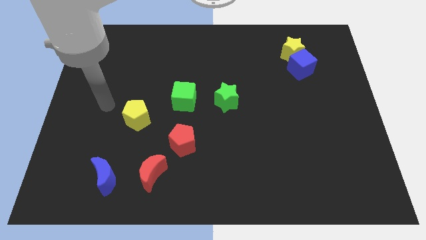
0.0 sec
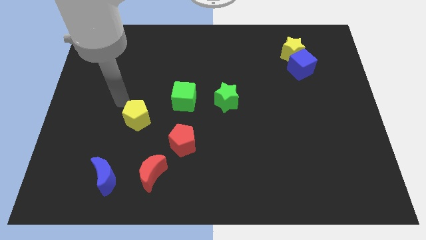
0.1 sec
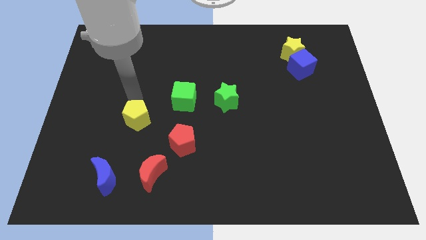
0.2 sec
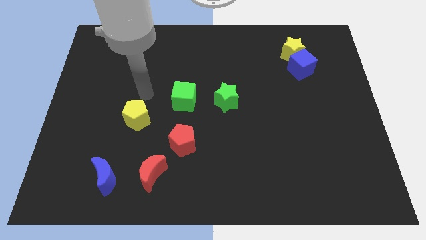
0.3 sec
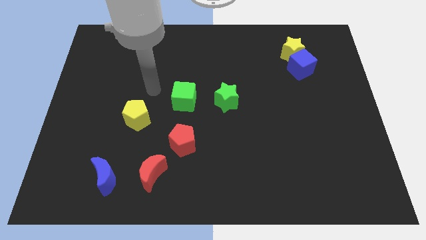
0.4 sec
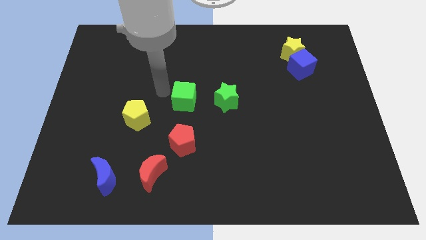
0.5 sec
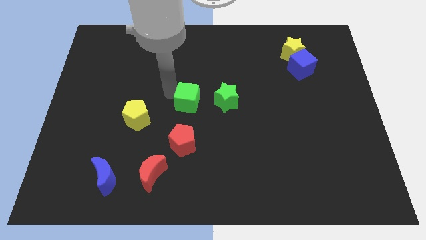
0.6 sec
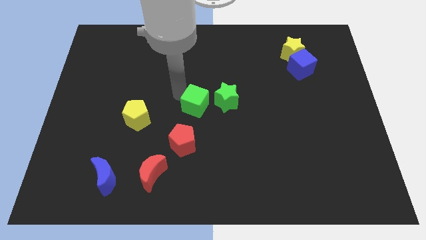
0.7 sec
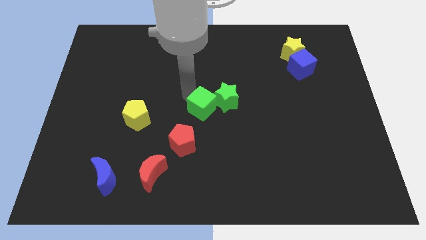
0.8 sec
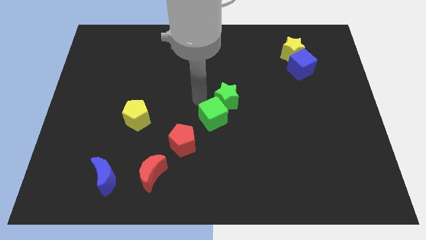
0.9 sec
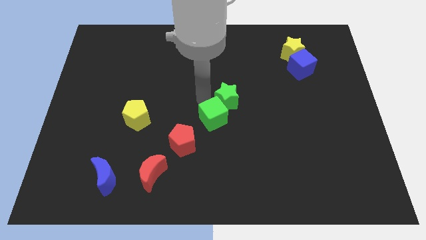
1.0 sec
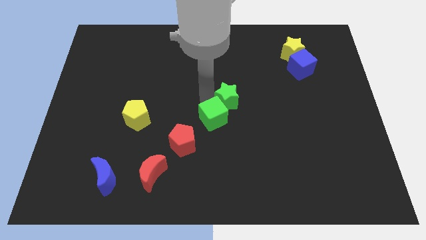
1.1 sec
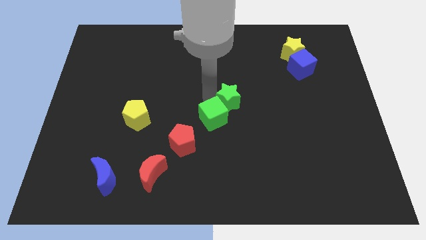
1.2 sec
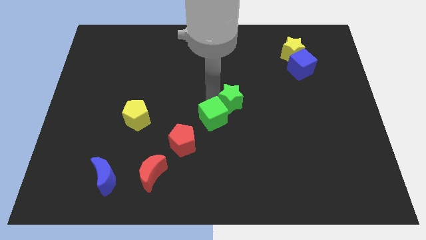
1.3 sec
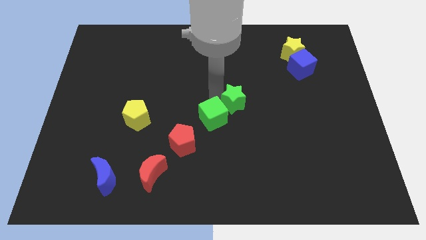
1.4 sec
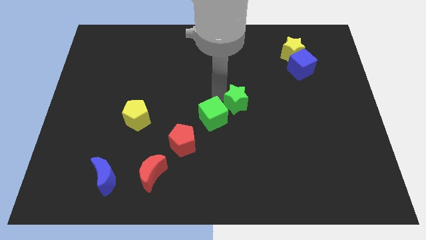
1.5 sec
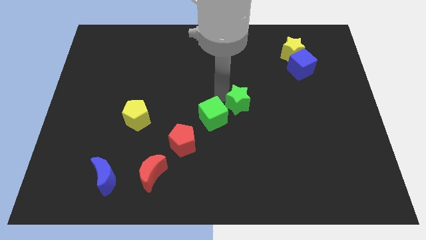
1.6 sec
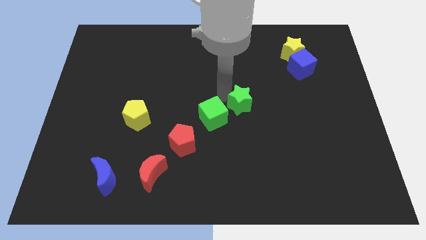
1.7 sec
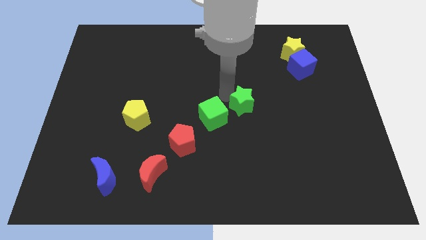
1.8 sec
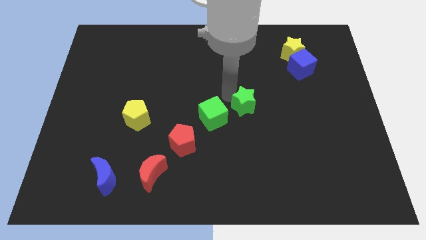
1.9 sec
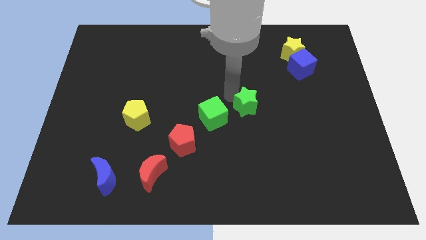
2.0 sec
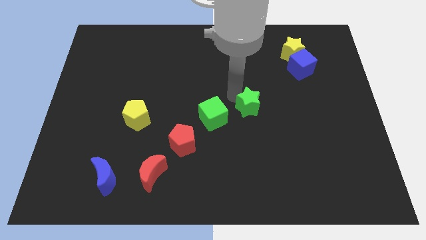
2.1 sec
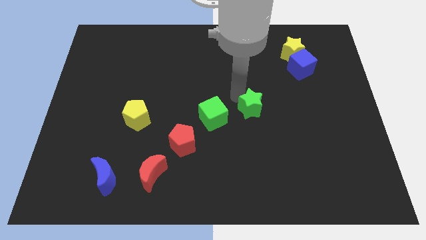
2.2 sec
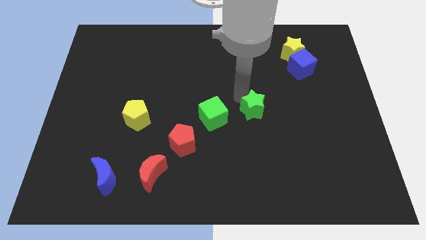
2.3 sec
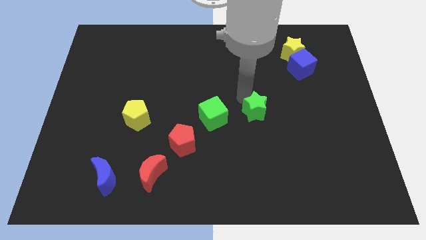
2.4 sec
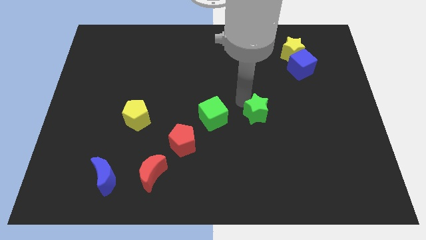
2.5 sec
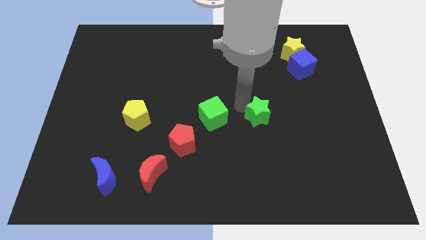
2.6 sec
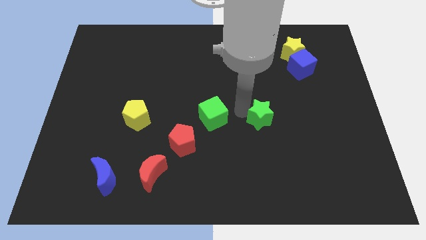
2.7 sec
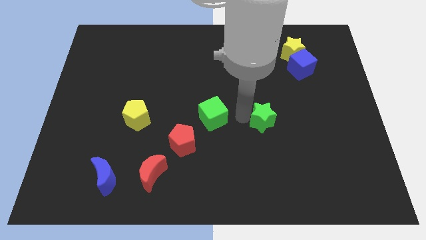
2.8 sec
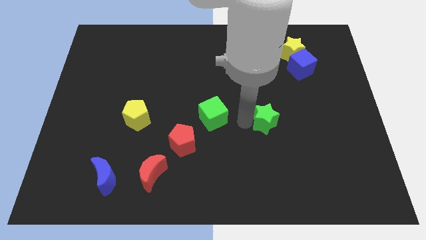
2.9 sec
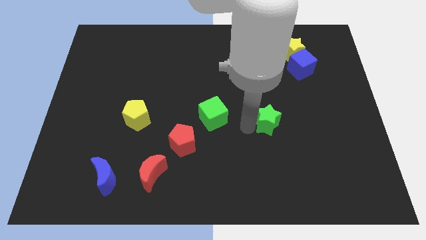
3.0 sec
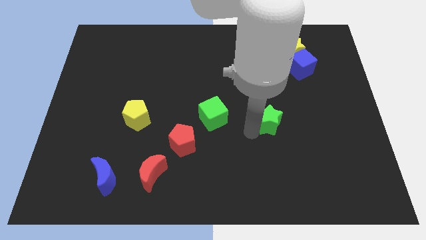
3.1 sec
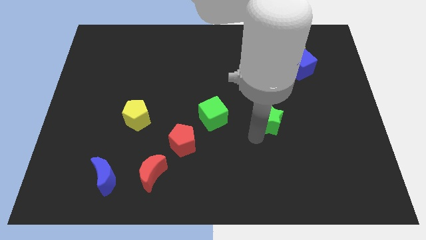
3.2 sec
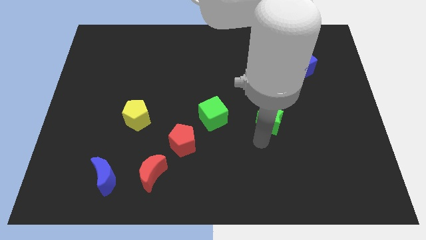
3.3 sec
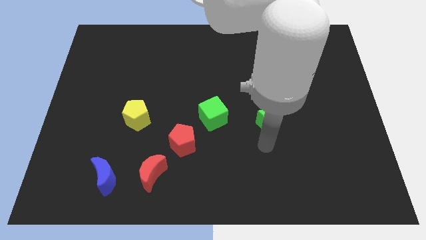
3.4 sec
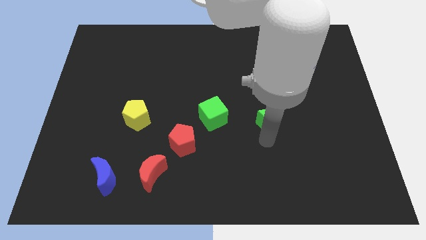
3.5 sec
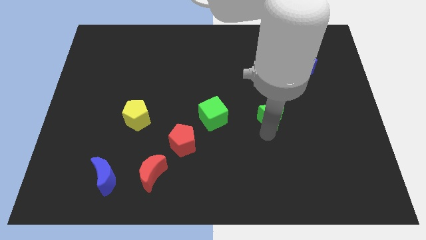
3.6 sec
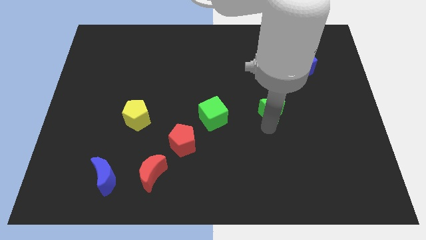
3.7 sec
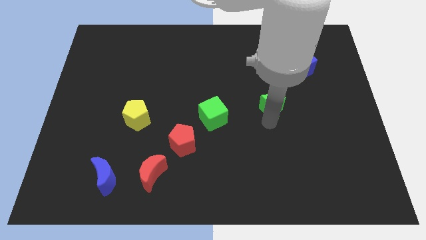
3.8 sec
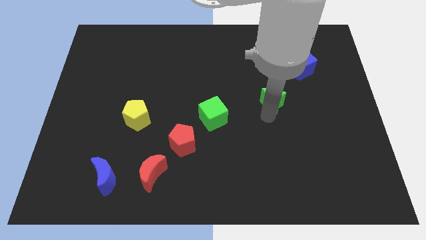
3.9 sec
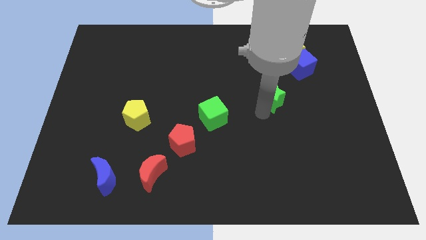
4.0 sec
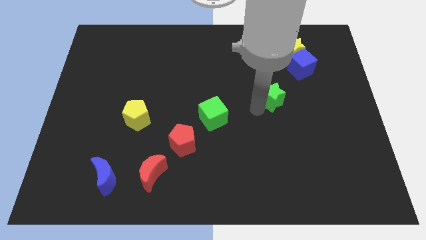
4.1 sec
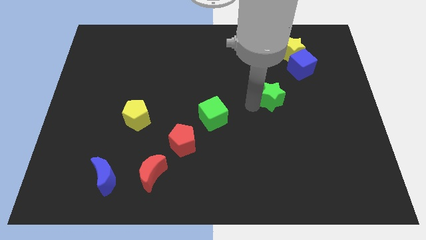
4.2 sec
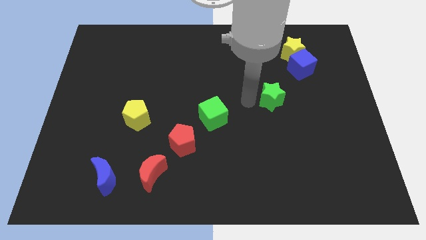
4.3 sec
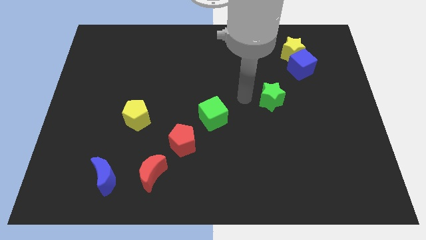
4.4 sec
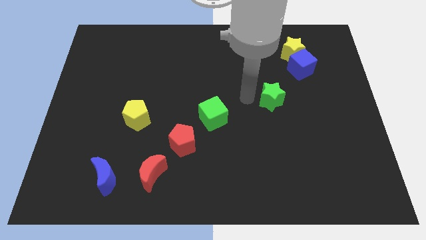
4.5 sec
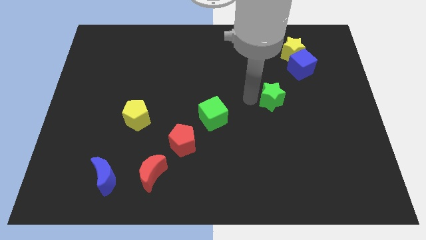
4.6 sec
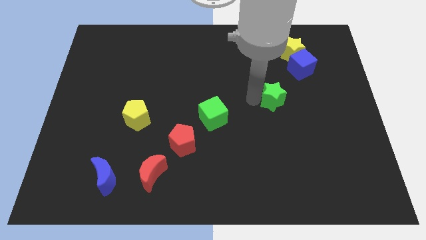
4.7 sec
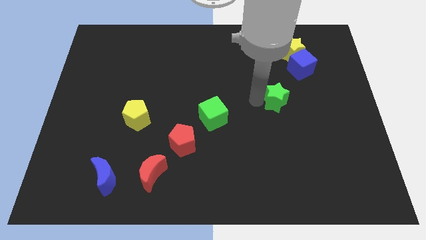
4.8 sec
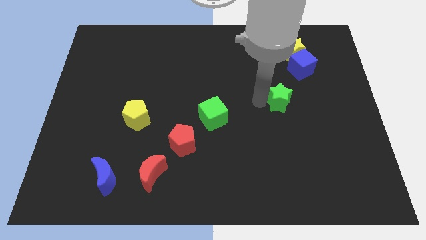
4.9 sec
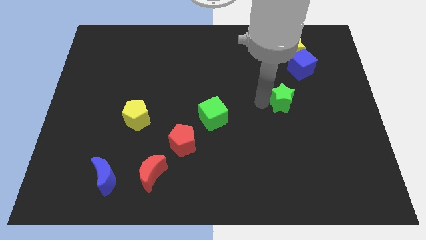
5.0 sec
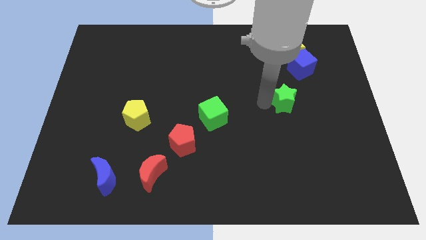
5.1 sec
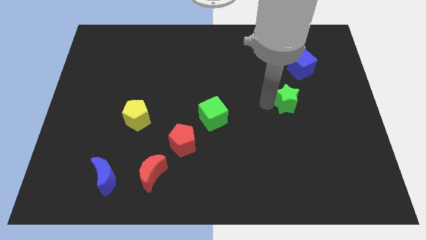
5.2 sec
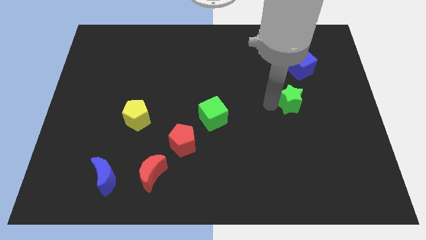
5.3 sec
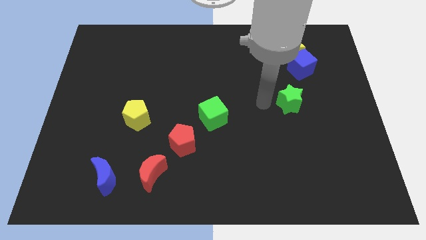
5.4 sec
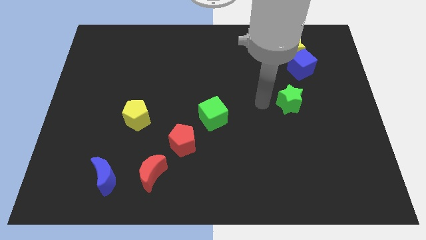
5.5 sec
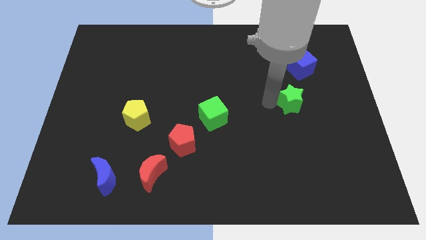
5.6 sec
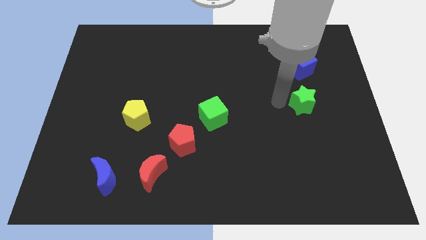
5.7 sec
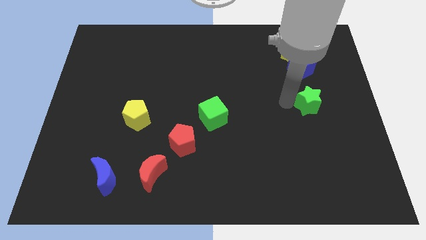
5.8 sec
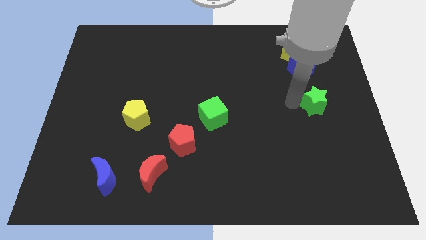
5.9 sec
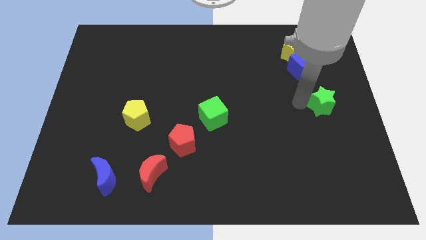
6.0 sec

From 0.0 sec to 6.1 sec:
move the green star to the right side

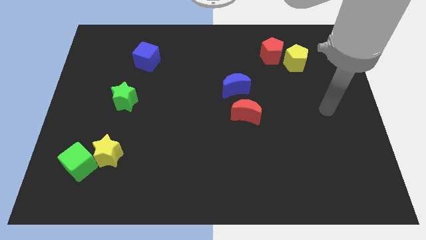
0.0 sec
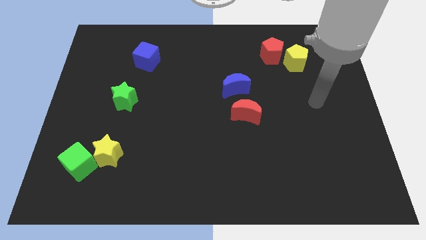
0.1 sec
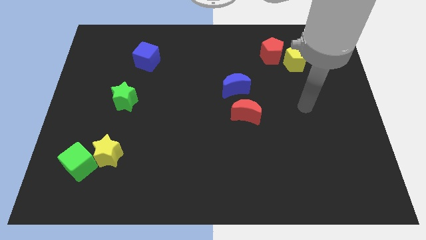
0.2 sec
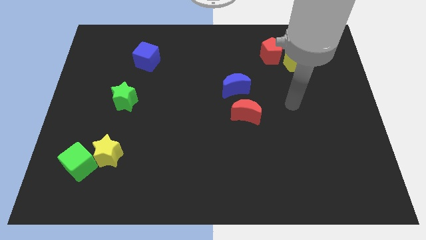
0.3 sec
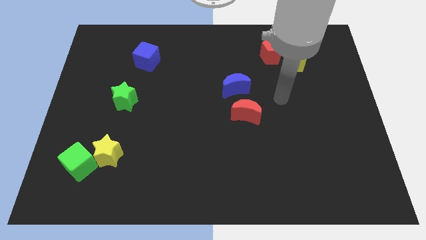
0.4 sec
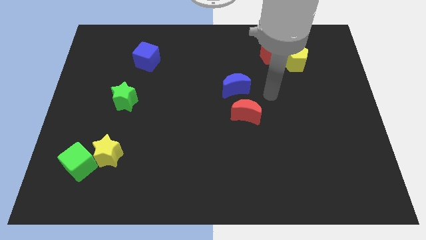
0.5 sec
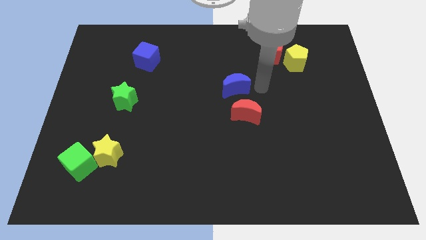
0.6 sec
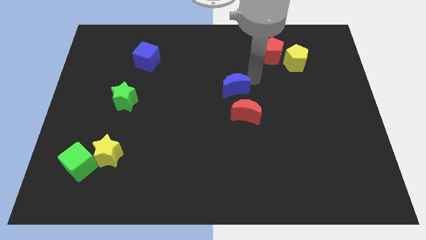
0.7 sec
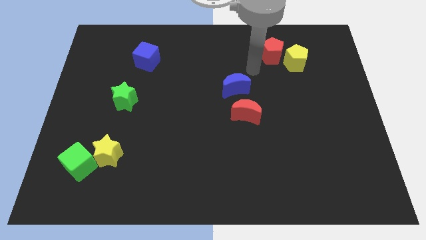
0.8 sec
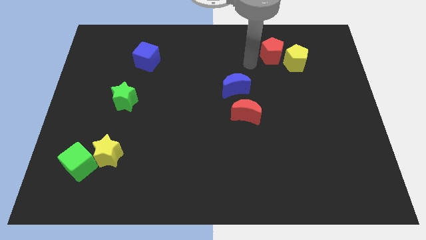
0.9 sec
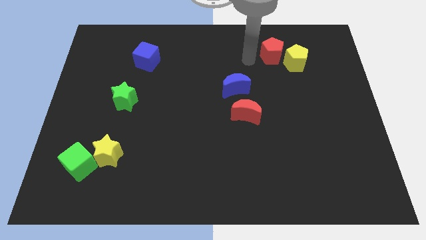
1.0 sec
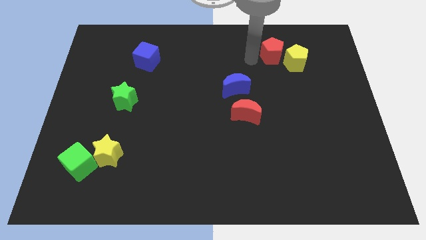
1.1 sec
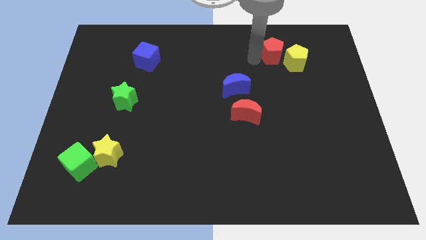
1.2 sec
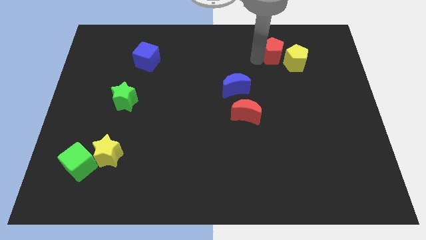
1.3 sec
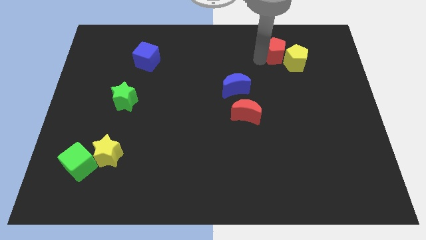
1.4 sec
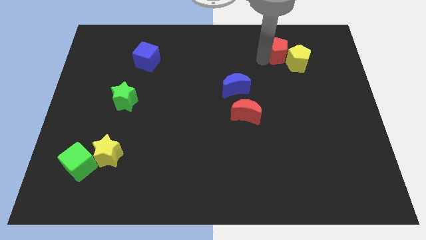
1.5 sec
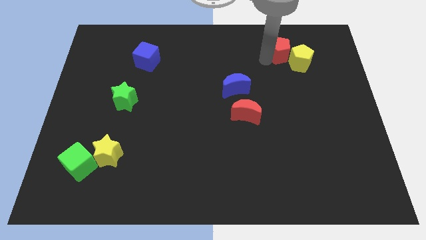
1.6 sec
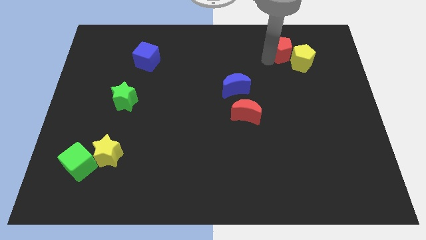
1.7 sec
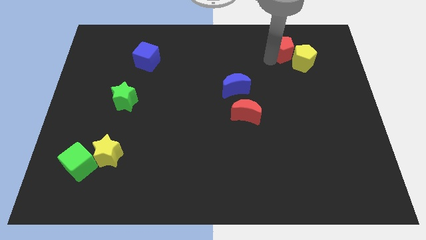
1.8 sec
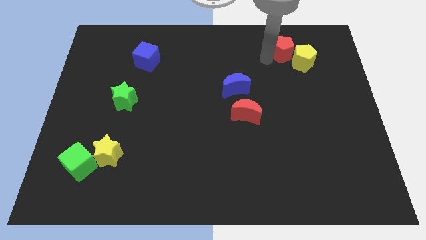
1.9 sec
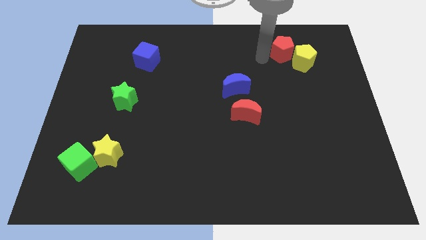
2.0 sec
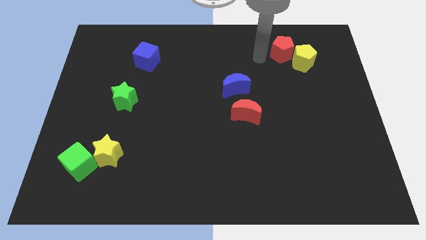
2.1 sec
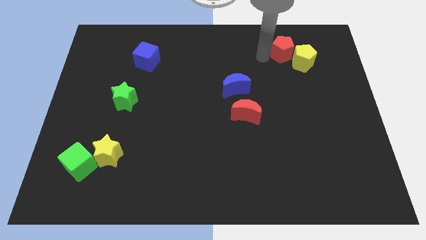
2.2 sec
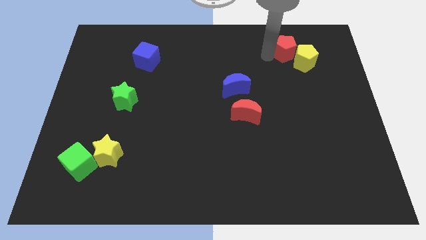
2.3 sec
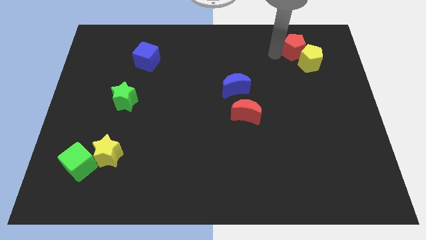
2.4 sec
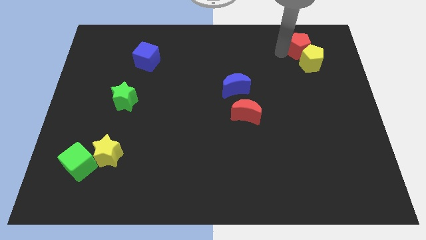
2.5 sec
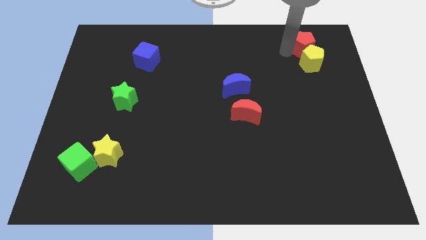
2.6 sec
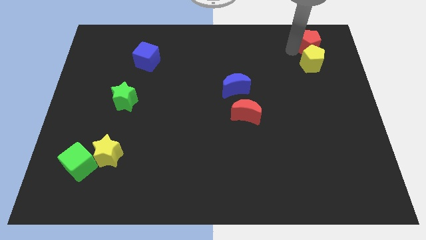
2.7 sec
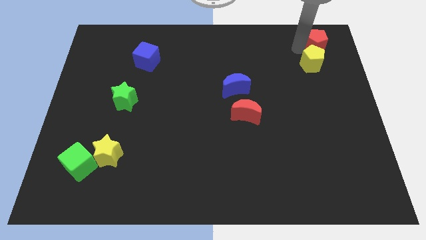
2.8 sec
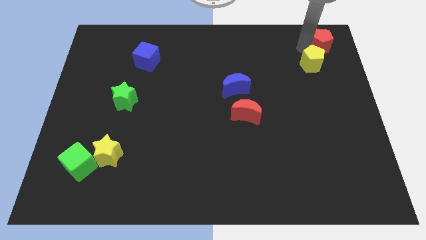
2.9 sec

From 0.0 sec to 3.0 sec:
push the red pentagon to the top right of the board
